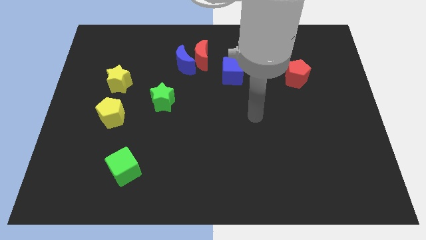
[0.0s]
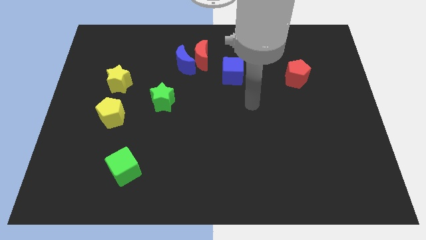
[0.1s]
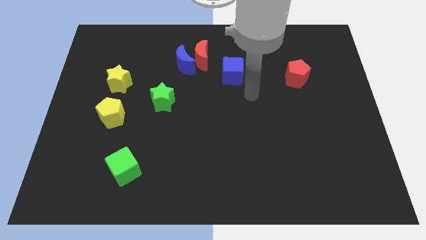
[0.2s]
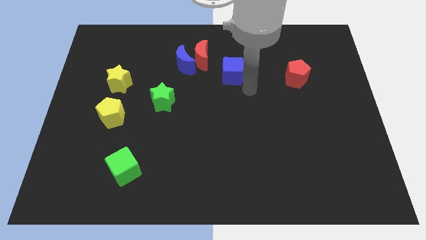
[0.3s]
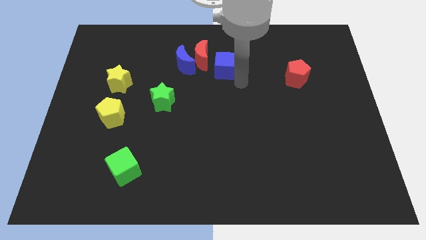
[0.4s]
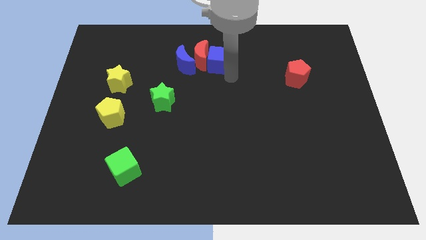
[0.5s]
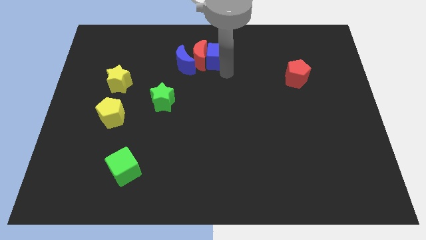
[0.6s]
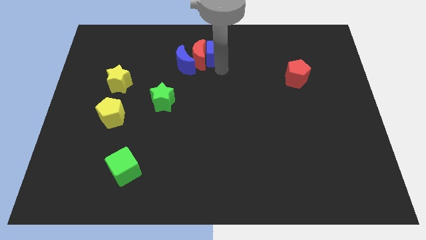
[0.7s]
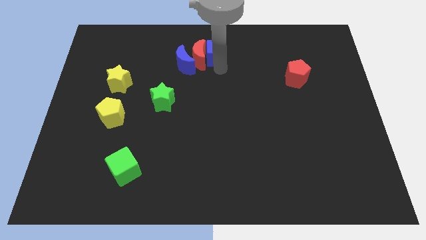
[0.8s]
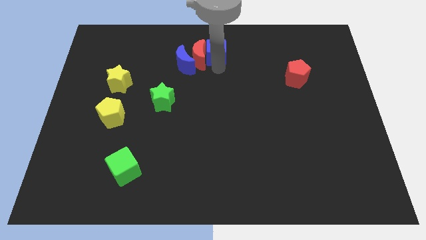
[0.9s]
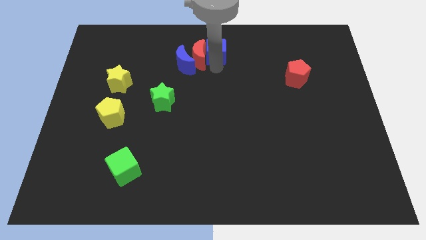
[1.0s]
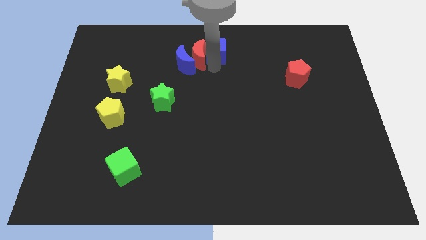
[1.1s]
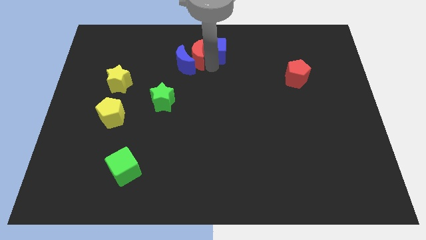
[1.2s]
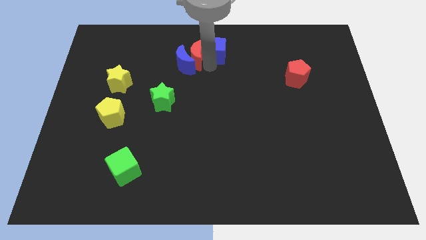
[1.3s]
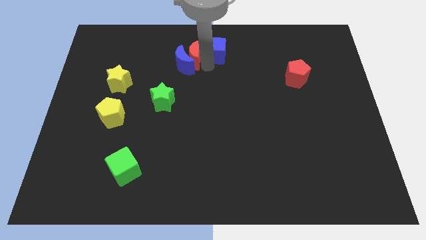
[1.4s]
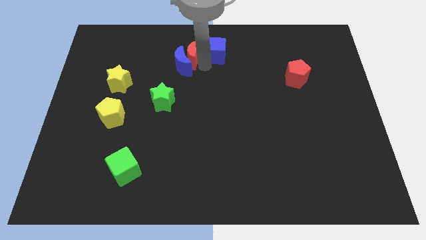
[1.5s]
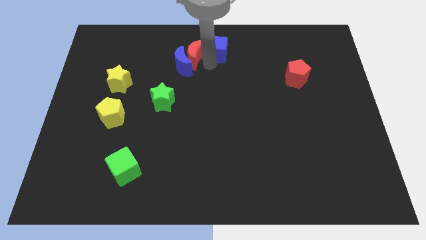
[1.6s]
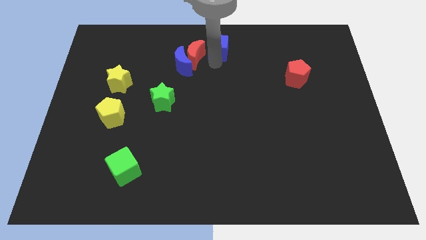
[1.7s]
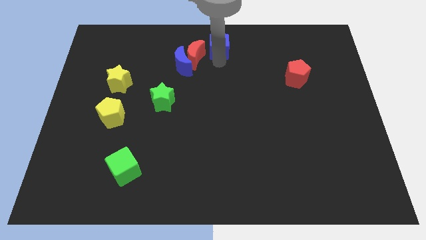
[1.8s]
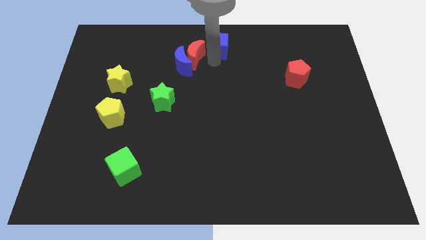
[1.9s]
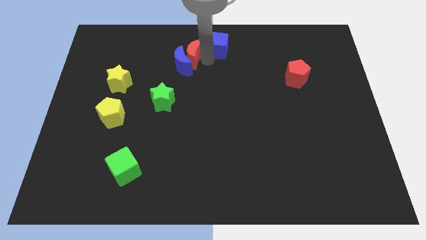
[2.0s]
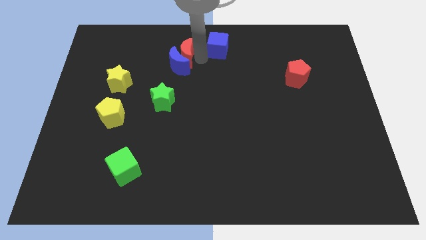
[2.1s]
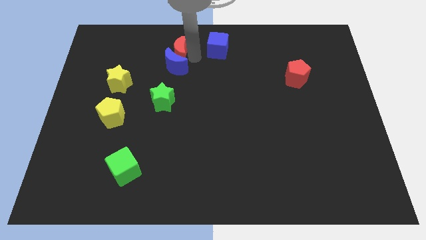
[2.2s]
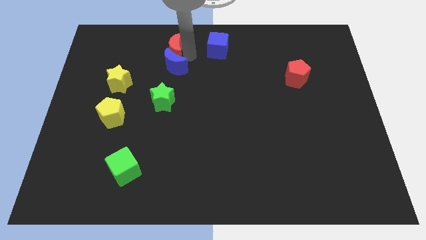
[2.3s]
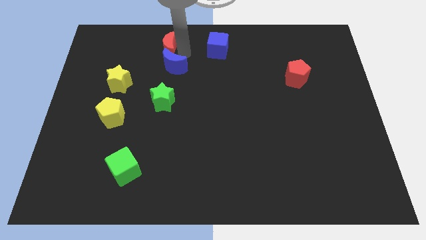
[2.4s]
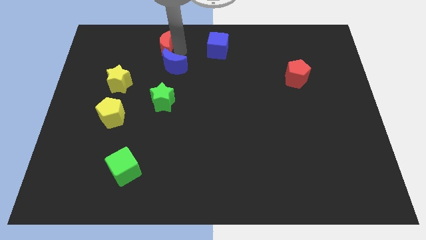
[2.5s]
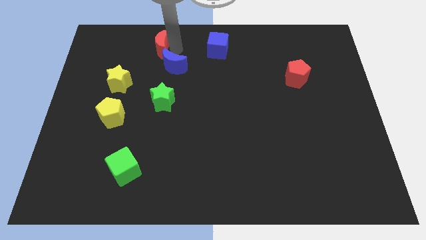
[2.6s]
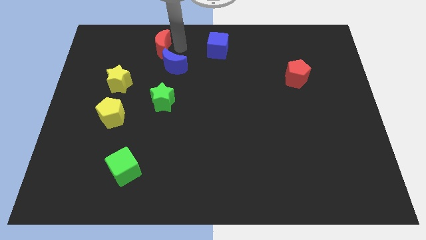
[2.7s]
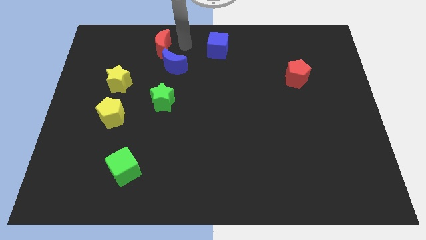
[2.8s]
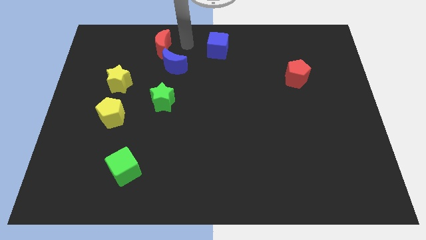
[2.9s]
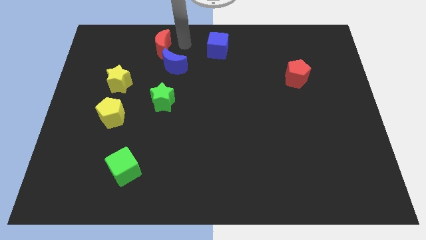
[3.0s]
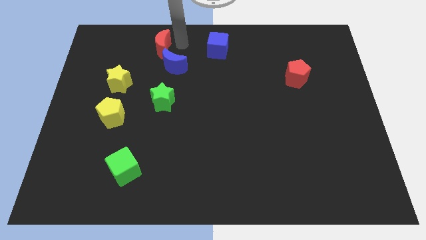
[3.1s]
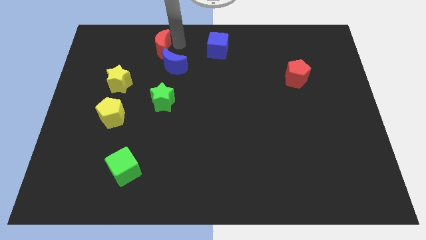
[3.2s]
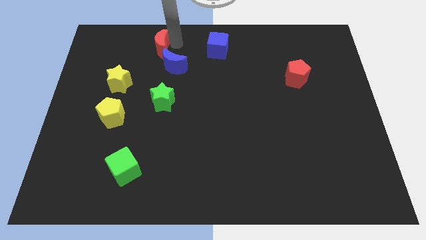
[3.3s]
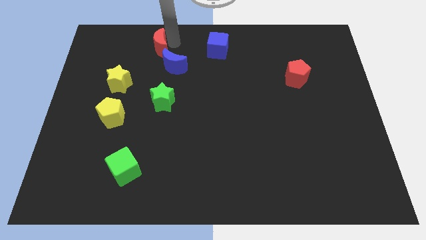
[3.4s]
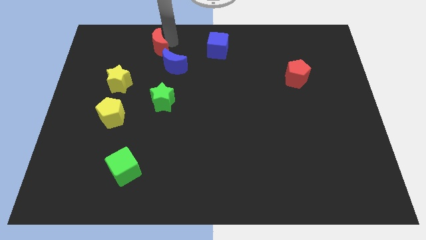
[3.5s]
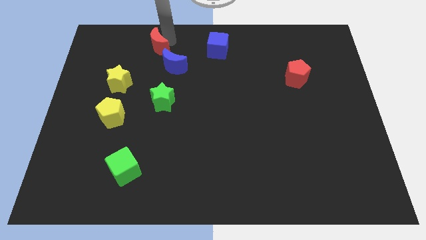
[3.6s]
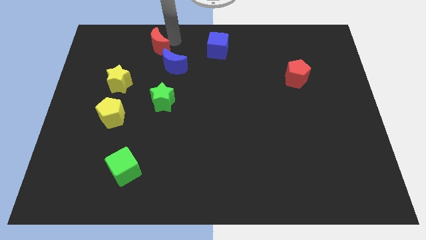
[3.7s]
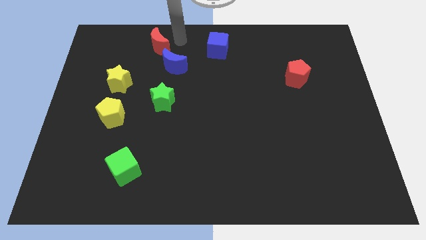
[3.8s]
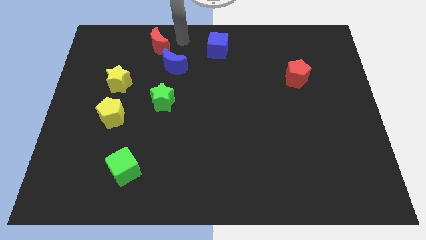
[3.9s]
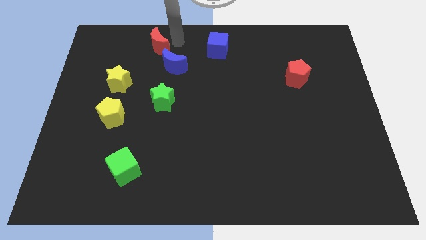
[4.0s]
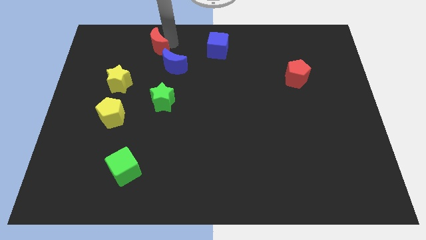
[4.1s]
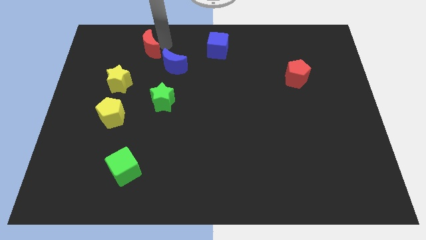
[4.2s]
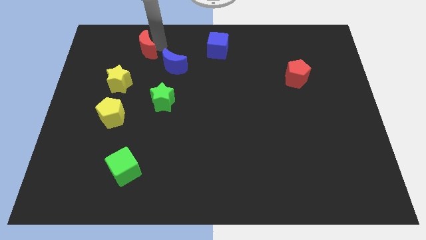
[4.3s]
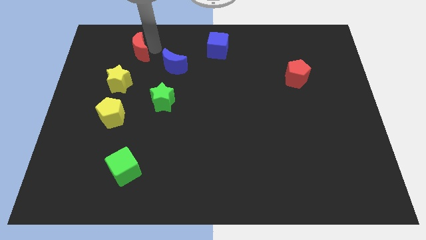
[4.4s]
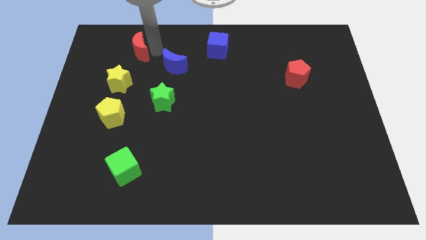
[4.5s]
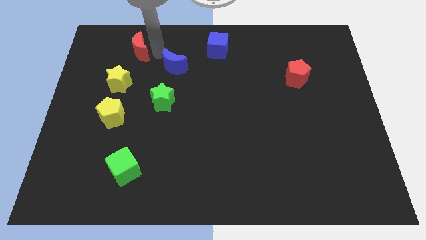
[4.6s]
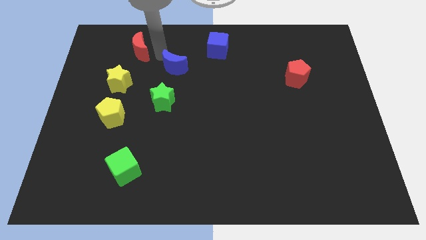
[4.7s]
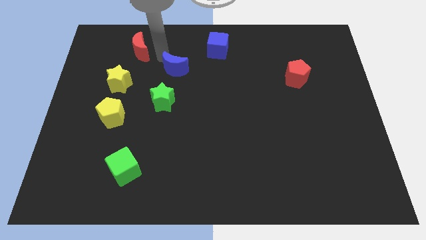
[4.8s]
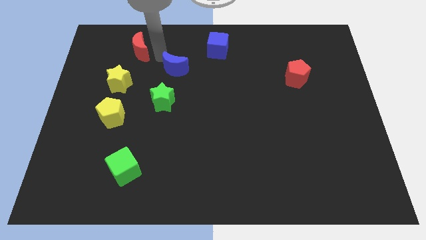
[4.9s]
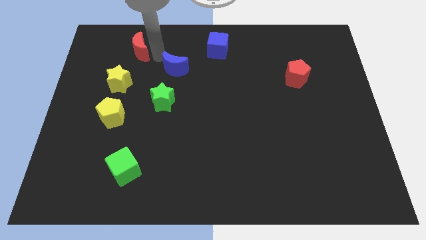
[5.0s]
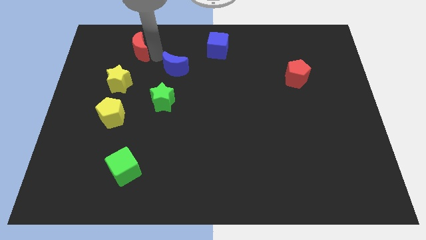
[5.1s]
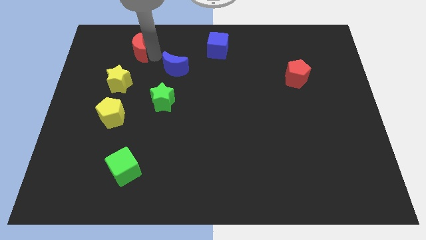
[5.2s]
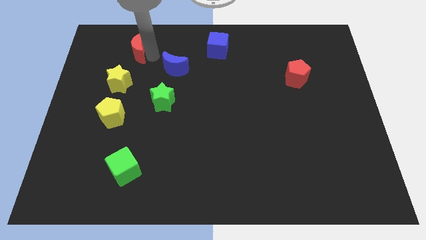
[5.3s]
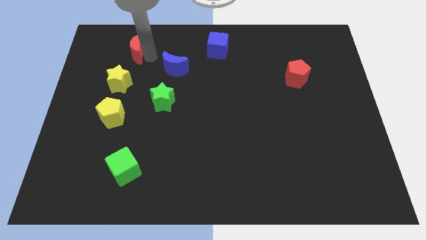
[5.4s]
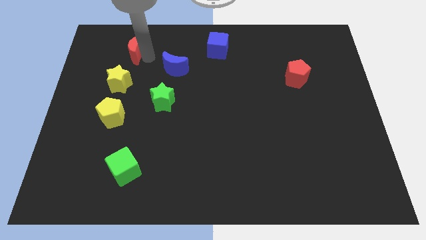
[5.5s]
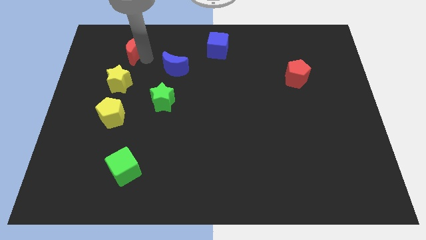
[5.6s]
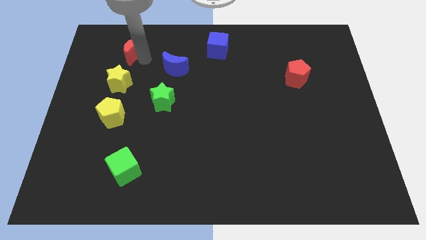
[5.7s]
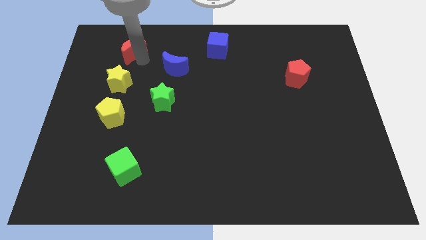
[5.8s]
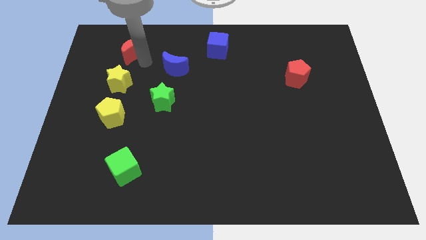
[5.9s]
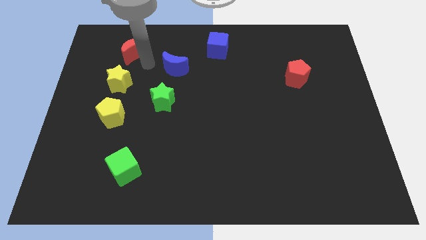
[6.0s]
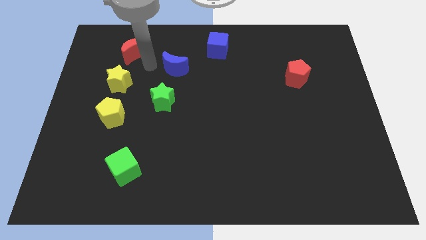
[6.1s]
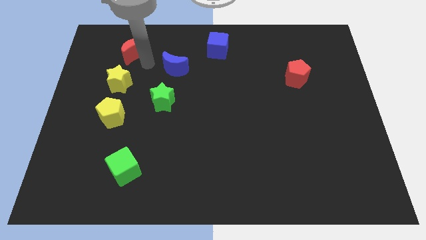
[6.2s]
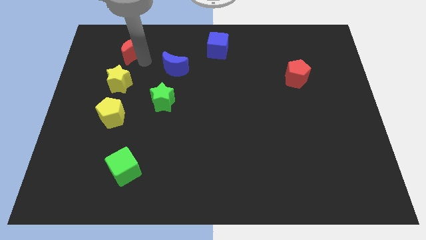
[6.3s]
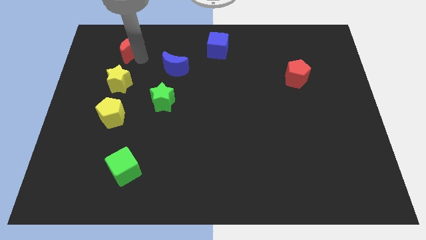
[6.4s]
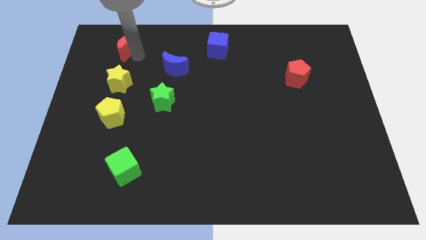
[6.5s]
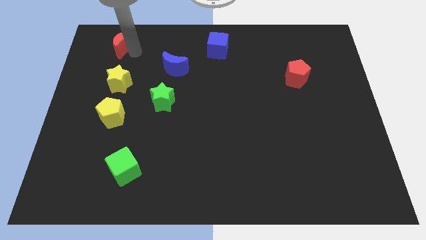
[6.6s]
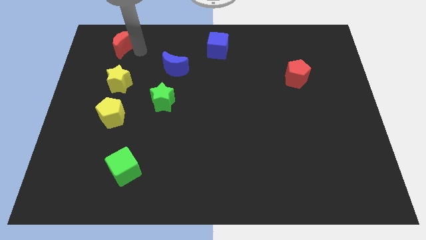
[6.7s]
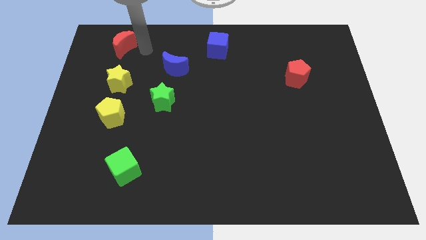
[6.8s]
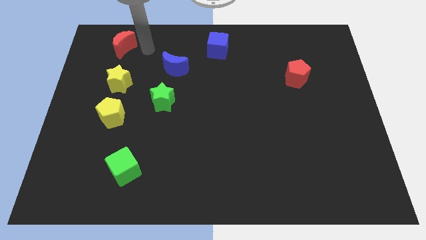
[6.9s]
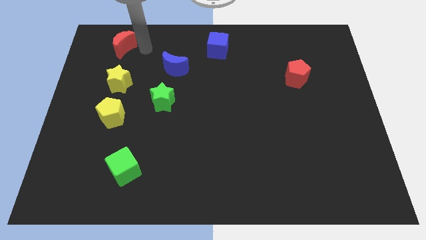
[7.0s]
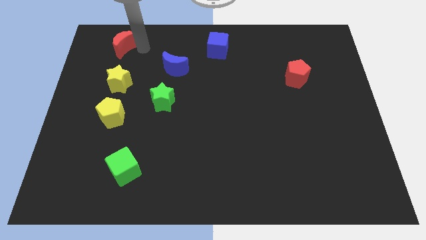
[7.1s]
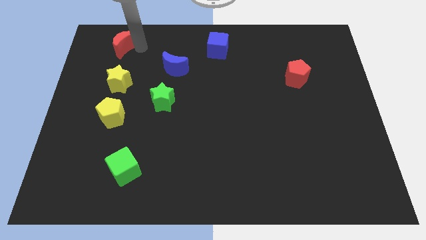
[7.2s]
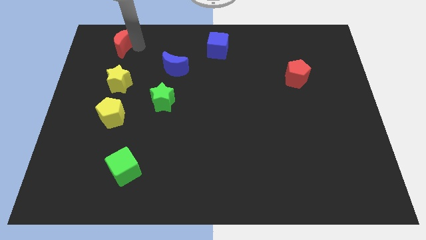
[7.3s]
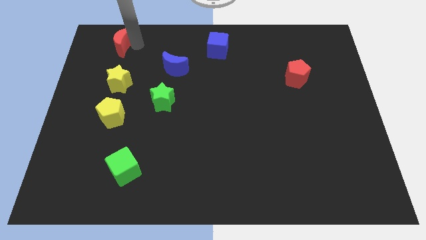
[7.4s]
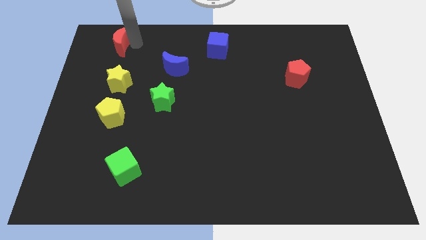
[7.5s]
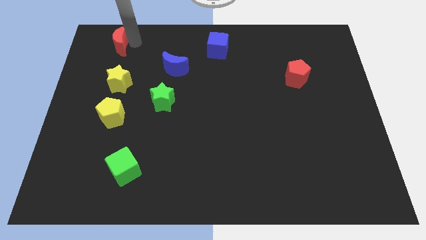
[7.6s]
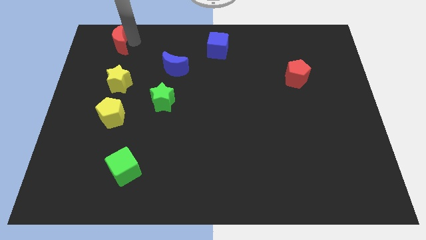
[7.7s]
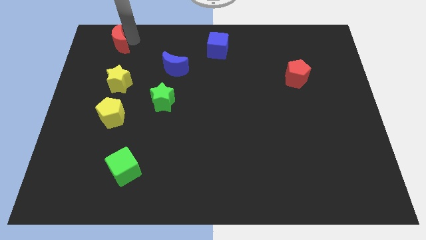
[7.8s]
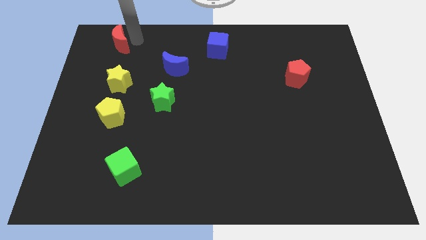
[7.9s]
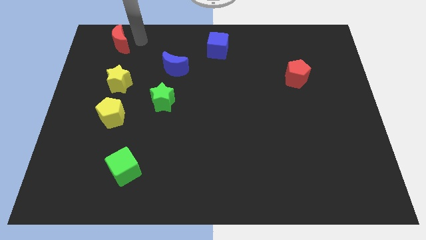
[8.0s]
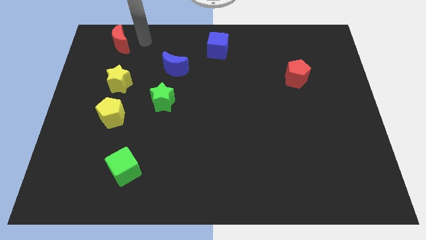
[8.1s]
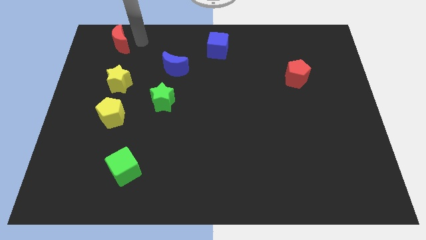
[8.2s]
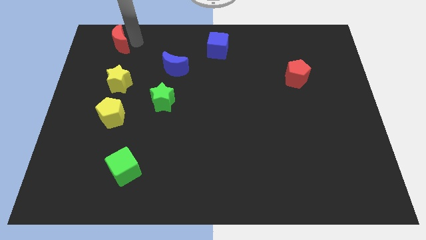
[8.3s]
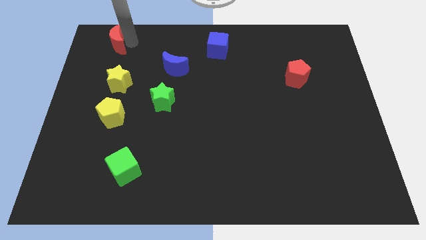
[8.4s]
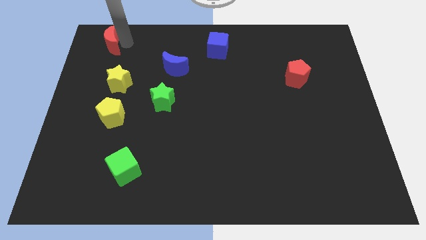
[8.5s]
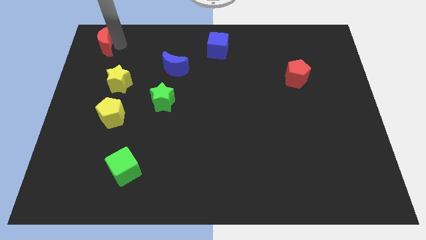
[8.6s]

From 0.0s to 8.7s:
put the red moon to the top left corner
